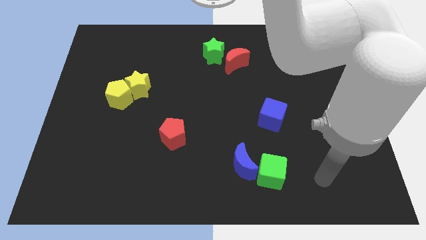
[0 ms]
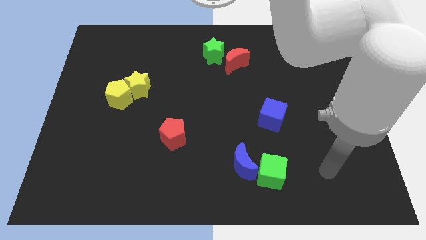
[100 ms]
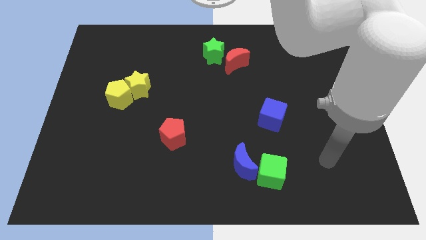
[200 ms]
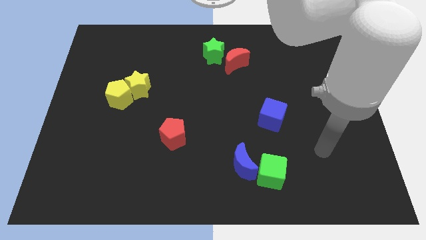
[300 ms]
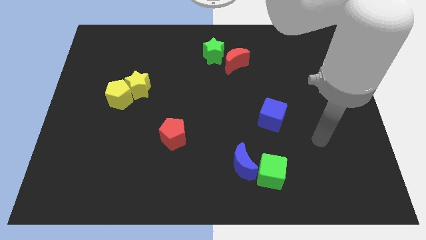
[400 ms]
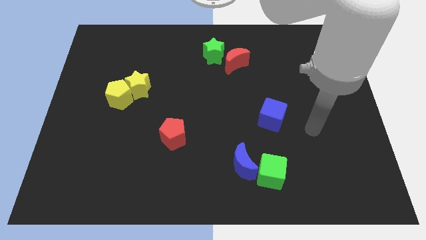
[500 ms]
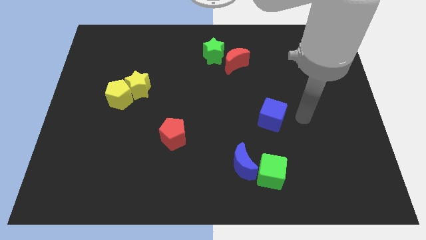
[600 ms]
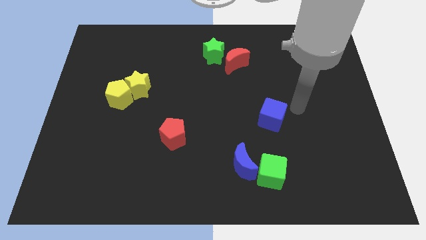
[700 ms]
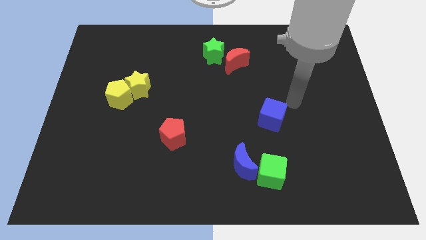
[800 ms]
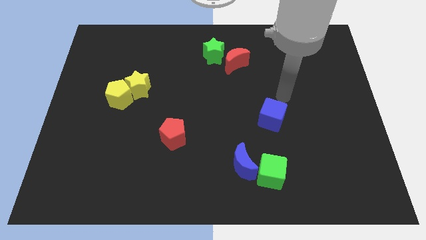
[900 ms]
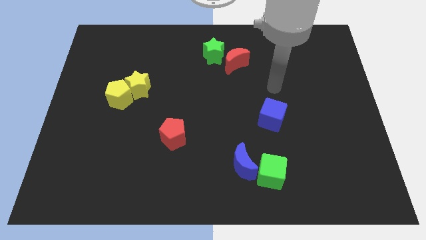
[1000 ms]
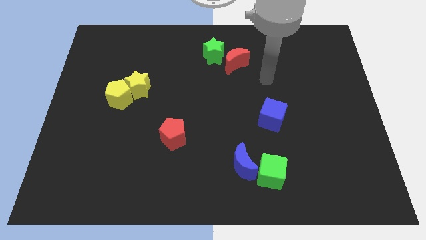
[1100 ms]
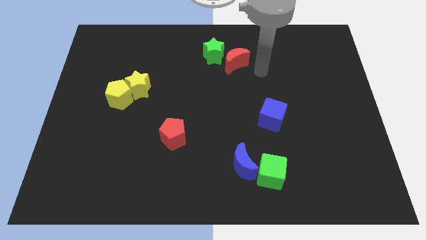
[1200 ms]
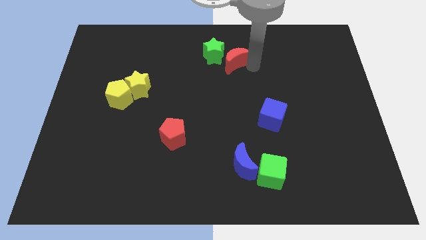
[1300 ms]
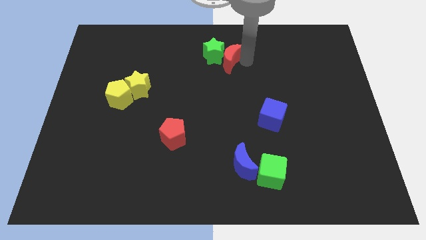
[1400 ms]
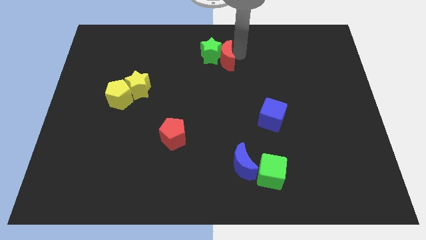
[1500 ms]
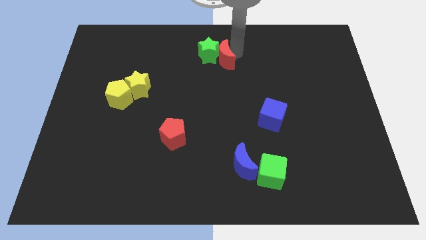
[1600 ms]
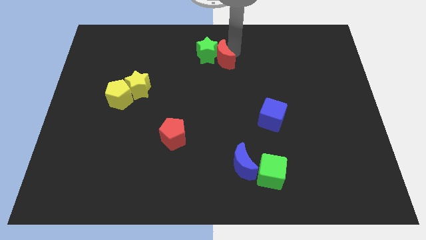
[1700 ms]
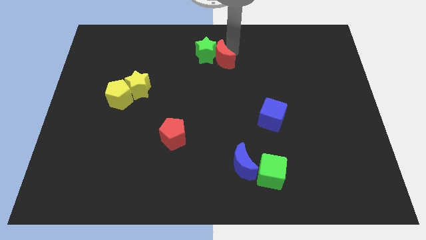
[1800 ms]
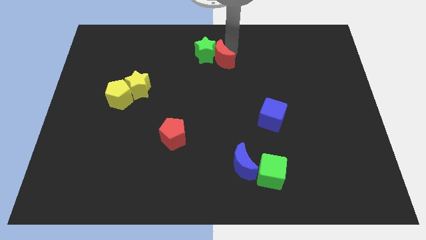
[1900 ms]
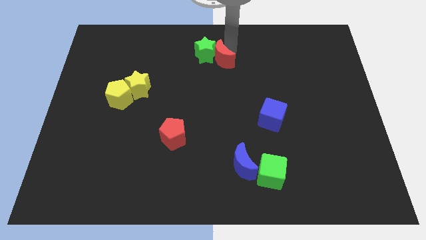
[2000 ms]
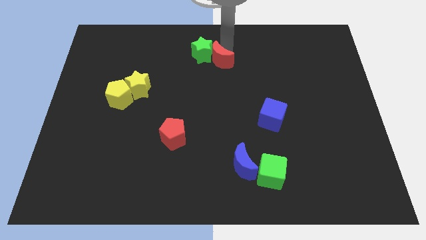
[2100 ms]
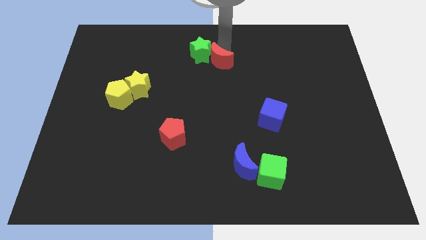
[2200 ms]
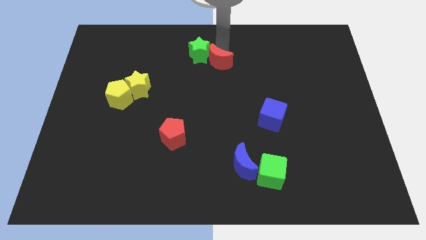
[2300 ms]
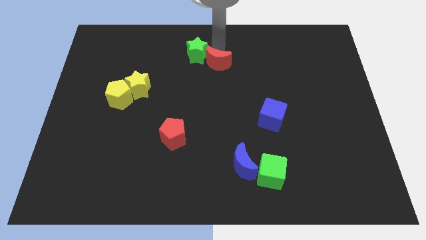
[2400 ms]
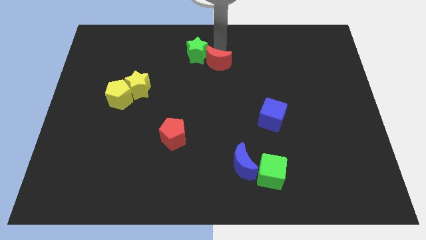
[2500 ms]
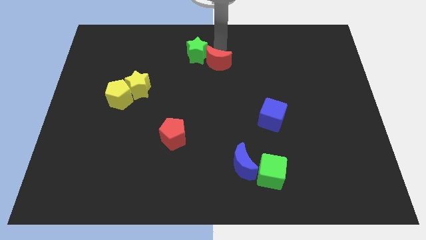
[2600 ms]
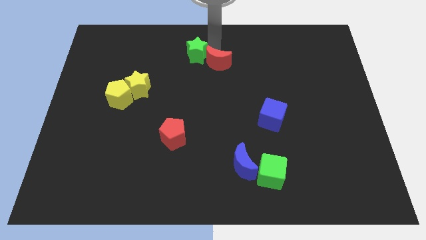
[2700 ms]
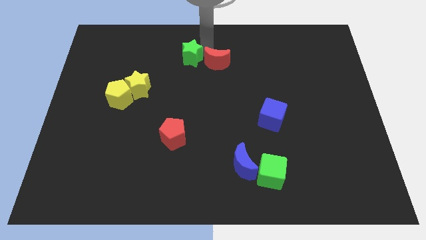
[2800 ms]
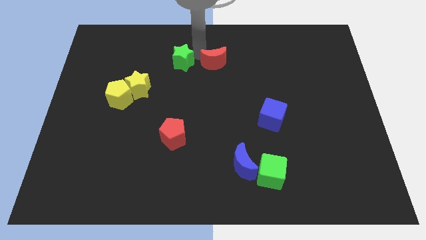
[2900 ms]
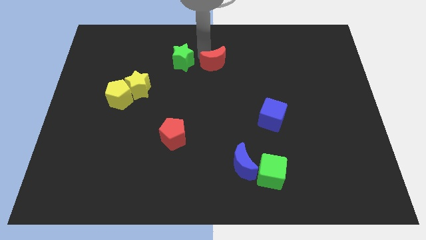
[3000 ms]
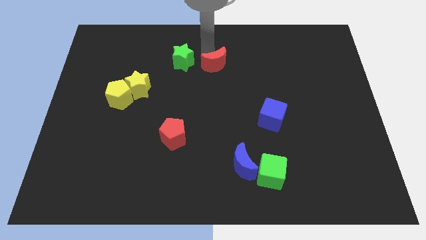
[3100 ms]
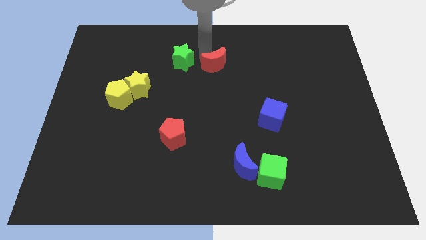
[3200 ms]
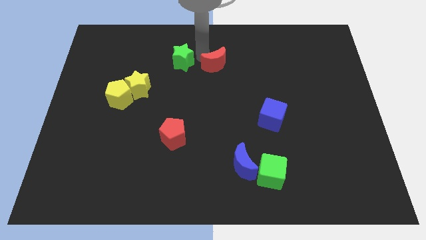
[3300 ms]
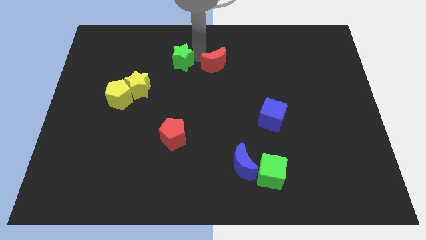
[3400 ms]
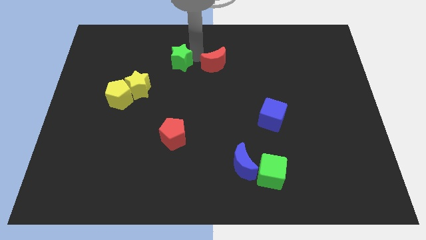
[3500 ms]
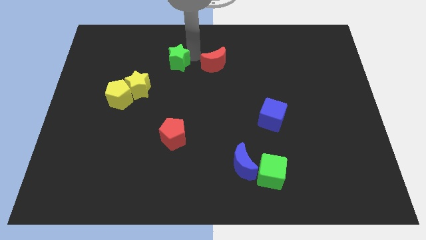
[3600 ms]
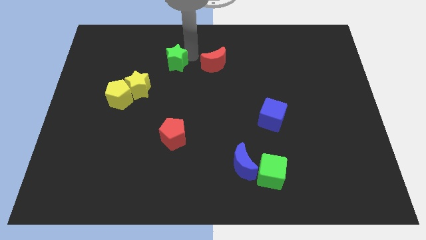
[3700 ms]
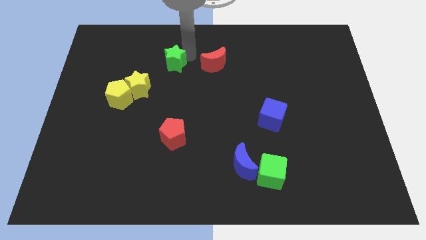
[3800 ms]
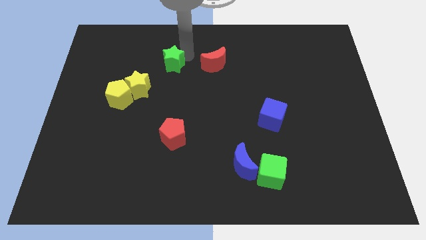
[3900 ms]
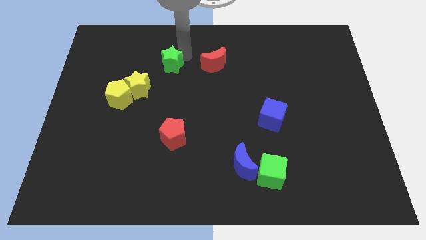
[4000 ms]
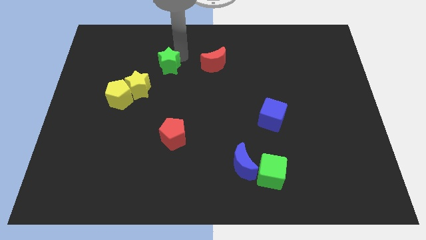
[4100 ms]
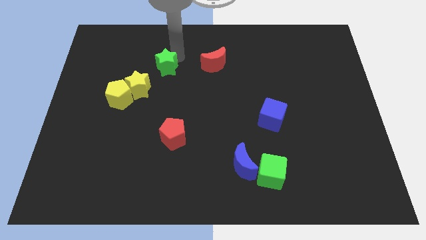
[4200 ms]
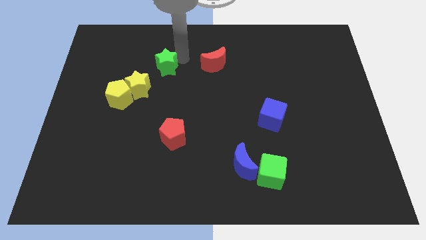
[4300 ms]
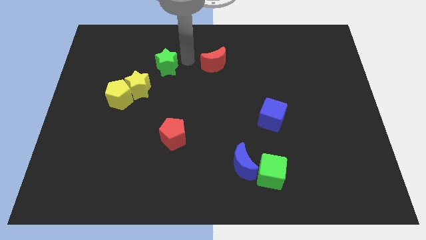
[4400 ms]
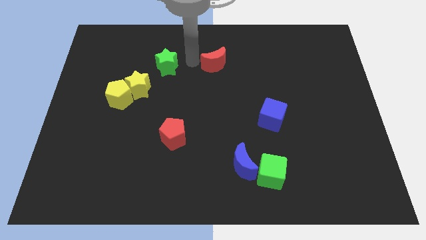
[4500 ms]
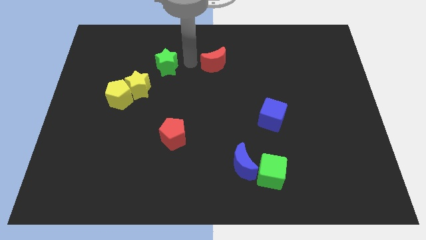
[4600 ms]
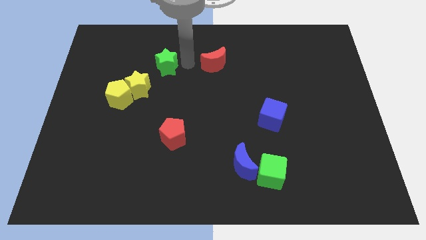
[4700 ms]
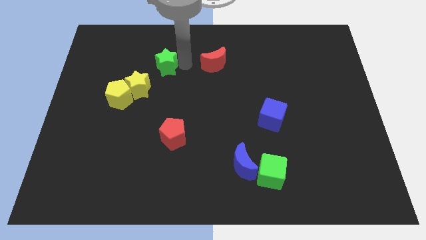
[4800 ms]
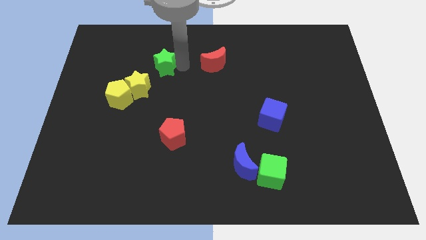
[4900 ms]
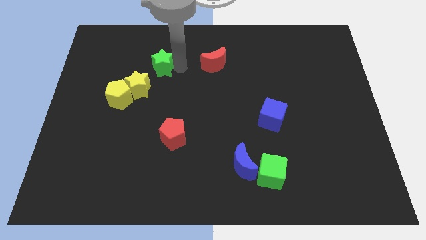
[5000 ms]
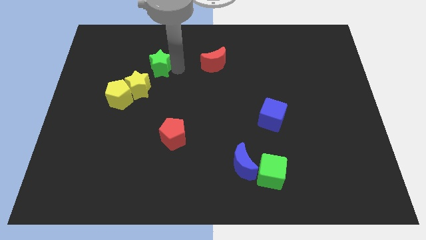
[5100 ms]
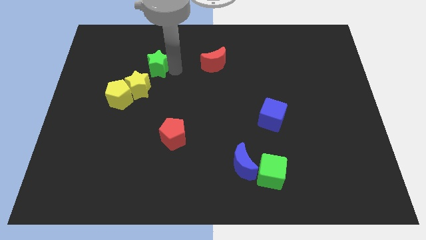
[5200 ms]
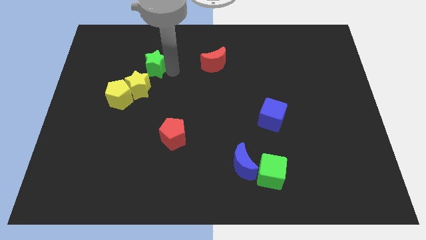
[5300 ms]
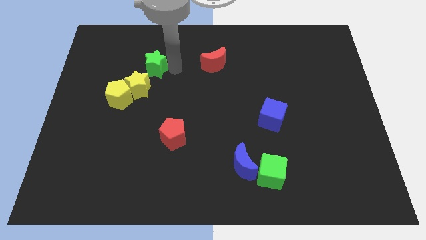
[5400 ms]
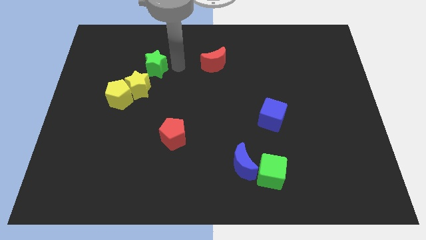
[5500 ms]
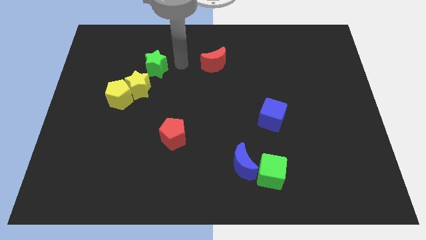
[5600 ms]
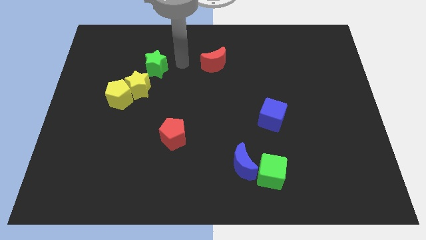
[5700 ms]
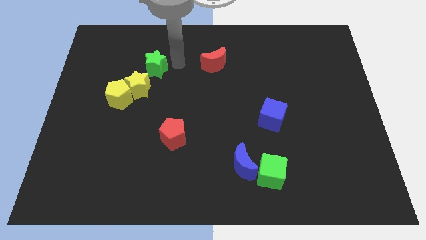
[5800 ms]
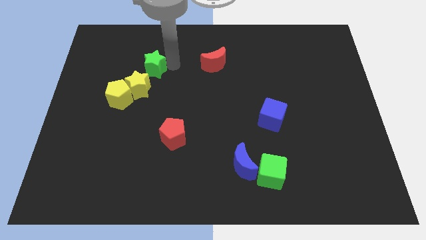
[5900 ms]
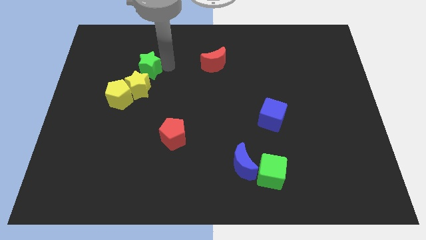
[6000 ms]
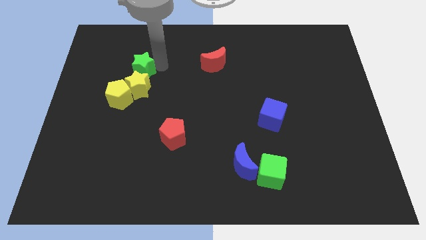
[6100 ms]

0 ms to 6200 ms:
push the green star close to the yellow star

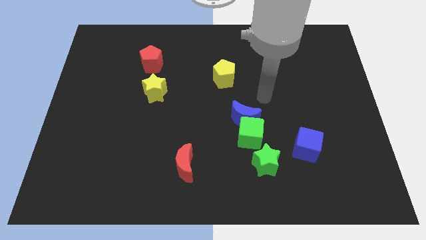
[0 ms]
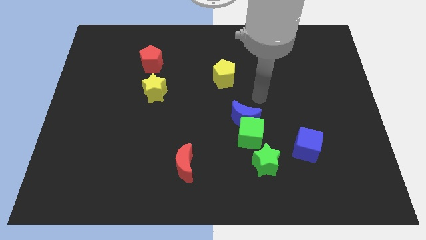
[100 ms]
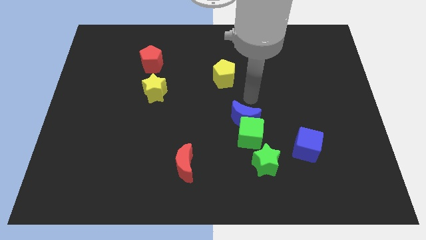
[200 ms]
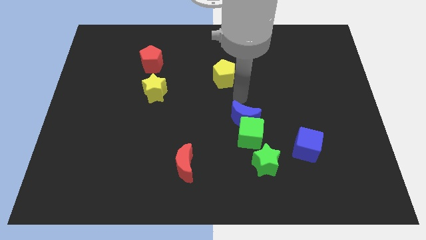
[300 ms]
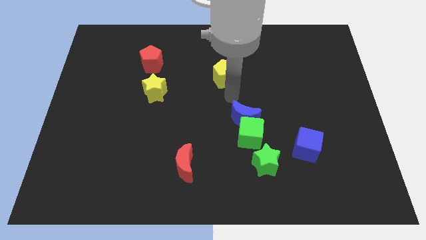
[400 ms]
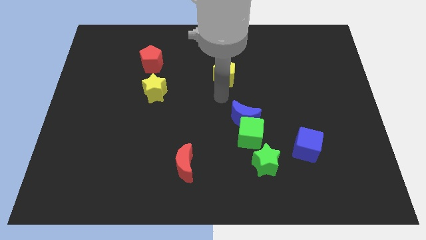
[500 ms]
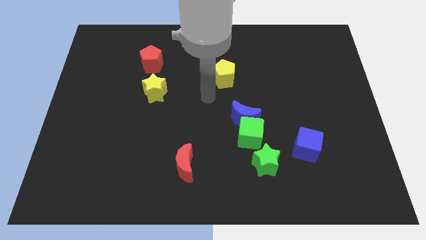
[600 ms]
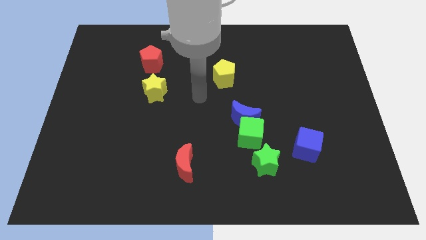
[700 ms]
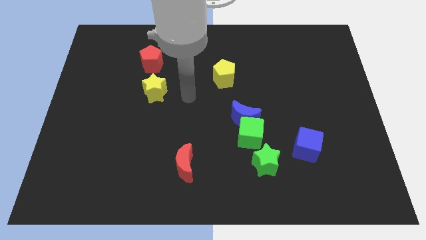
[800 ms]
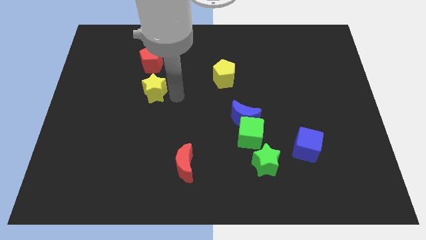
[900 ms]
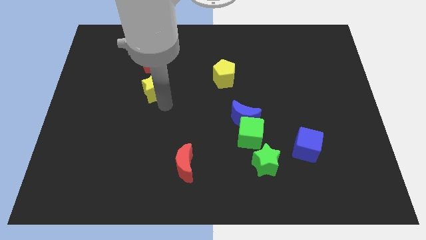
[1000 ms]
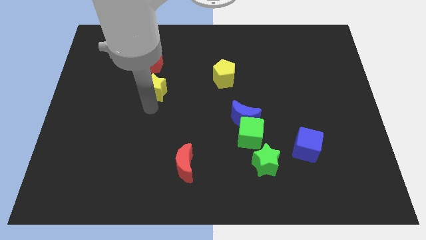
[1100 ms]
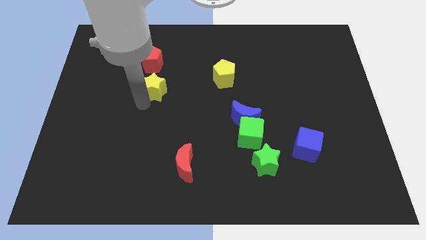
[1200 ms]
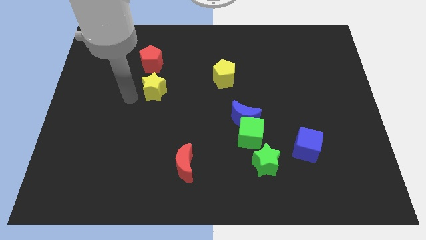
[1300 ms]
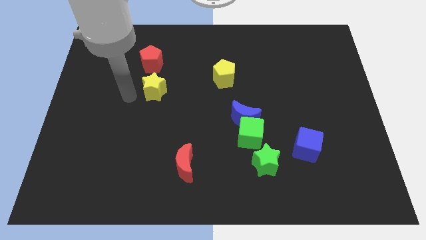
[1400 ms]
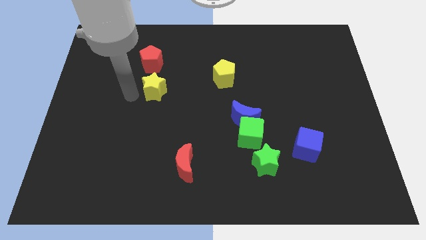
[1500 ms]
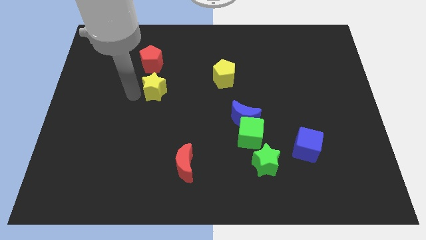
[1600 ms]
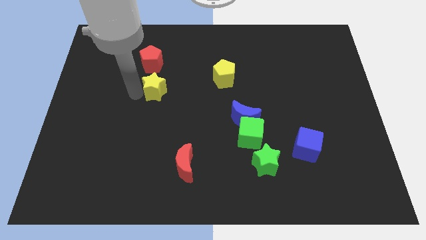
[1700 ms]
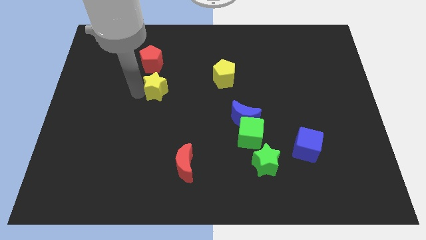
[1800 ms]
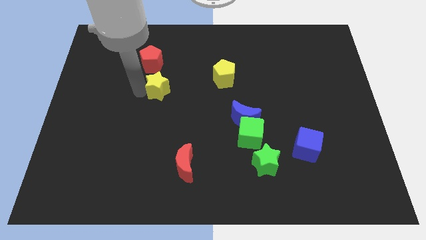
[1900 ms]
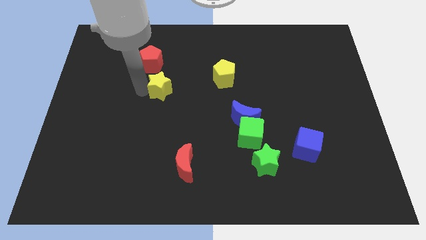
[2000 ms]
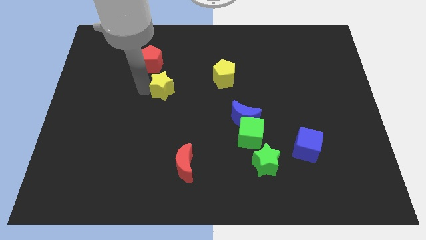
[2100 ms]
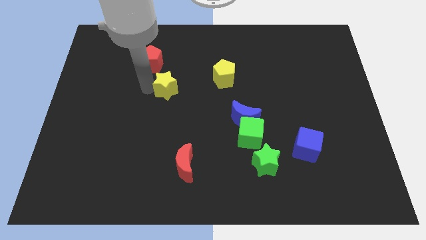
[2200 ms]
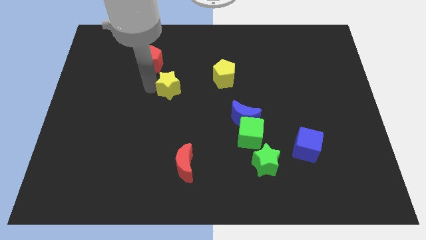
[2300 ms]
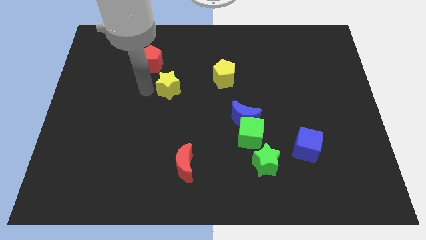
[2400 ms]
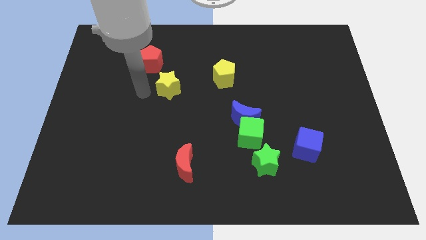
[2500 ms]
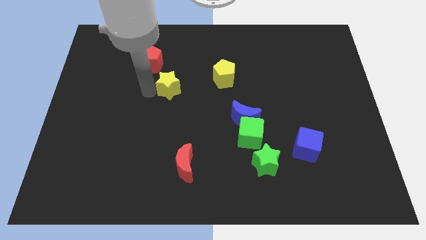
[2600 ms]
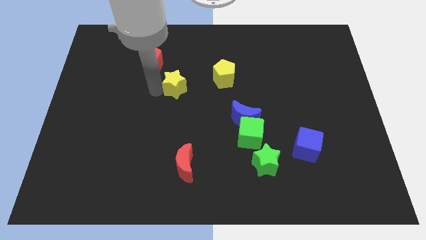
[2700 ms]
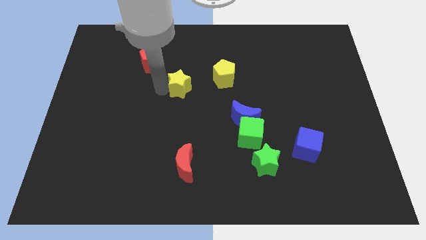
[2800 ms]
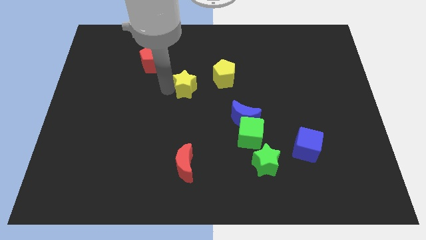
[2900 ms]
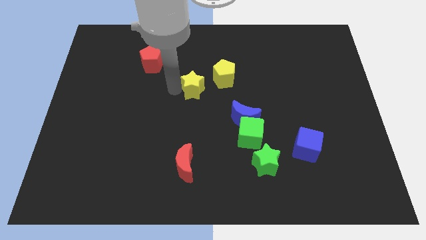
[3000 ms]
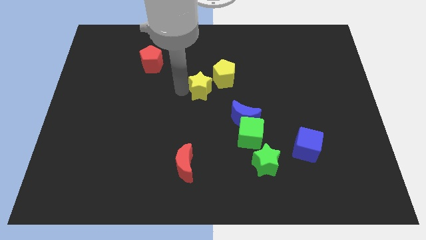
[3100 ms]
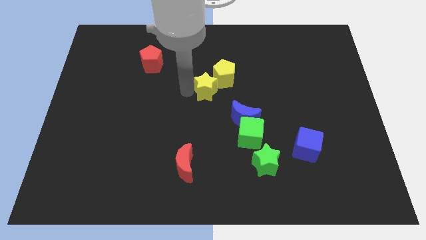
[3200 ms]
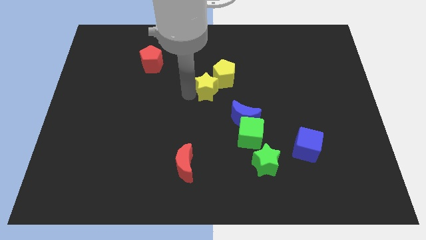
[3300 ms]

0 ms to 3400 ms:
move the yellow star to the yellow pentagon
